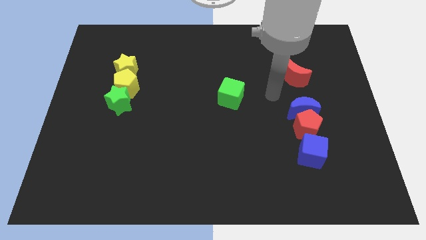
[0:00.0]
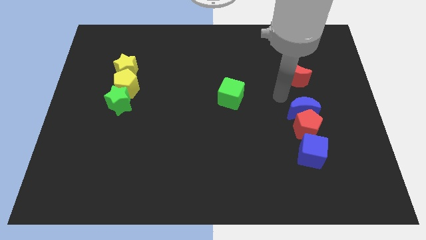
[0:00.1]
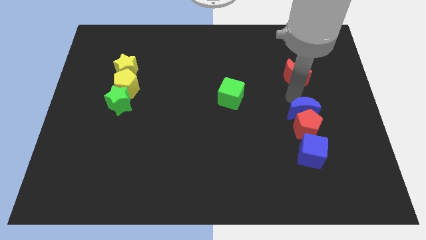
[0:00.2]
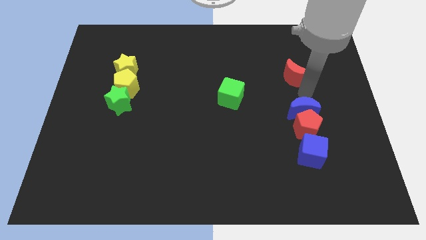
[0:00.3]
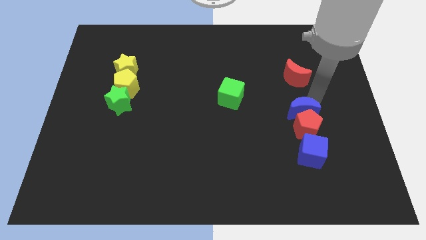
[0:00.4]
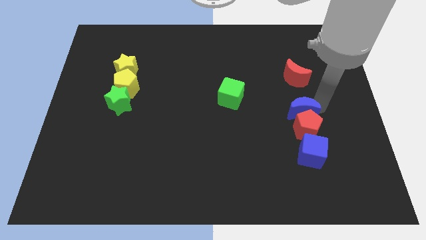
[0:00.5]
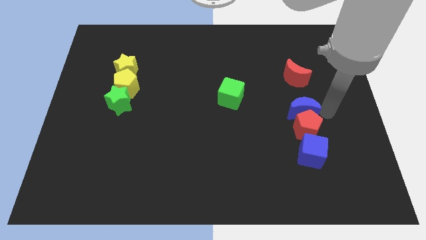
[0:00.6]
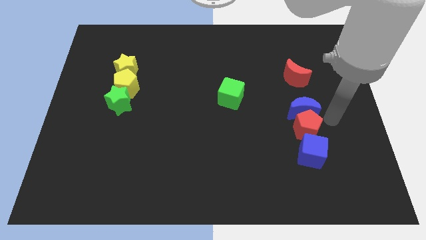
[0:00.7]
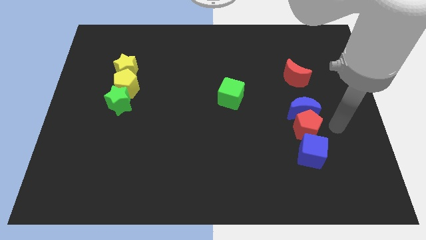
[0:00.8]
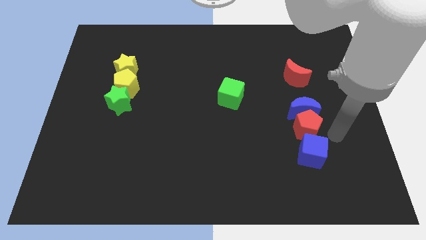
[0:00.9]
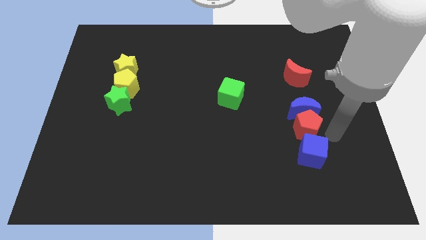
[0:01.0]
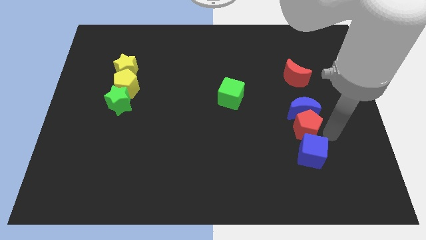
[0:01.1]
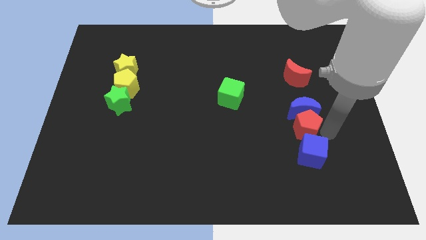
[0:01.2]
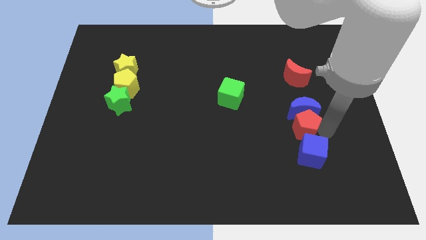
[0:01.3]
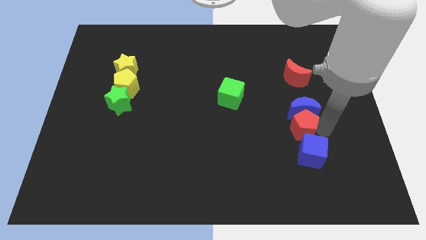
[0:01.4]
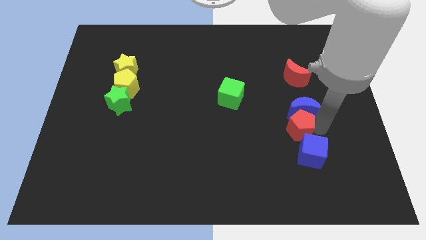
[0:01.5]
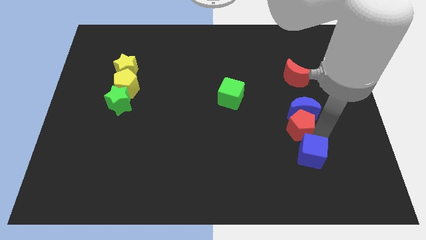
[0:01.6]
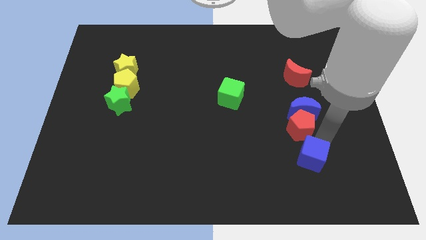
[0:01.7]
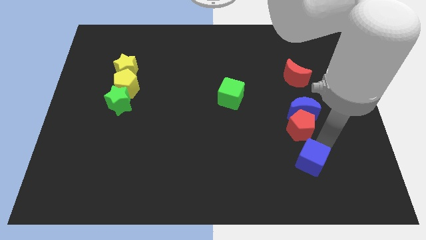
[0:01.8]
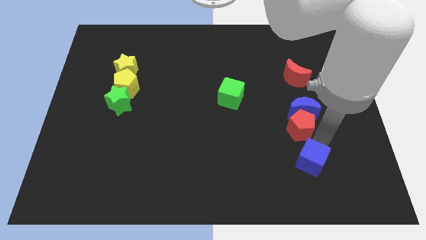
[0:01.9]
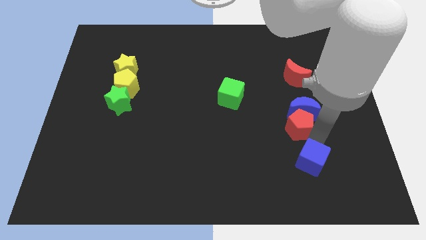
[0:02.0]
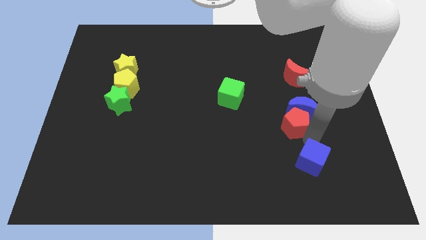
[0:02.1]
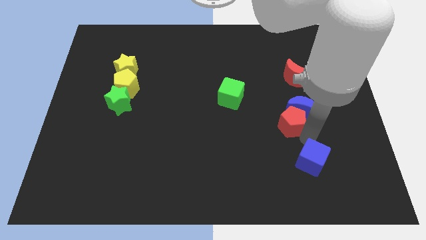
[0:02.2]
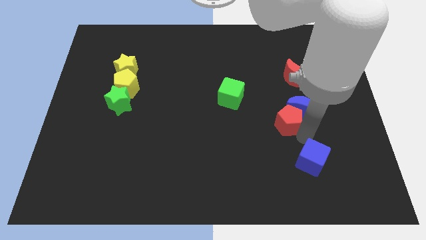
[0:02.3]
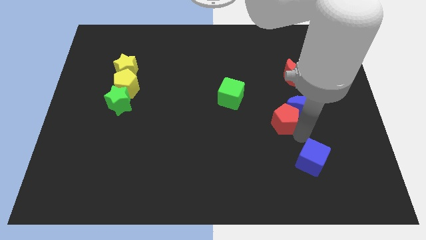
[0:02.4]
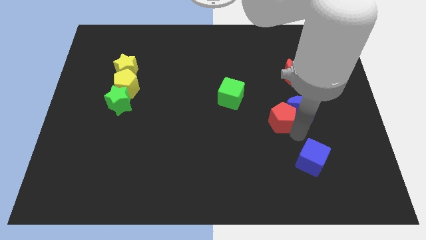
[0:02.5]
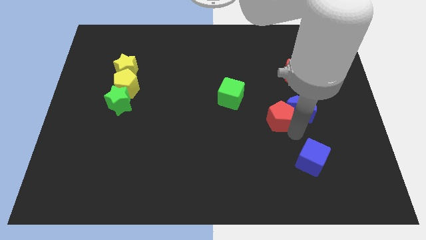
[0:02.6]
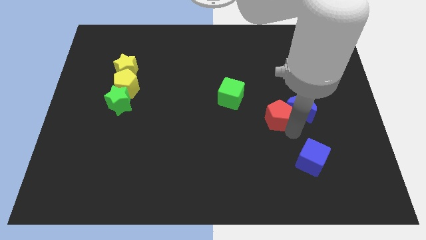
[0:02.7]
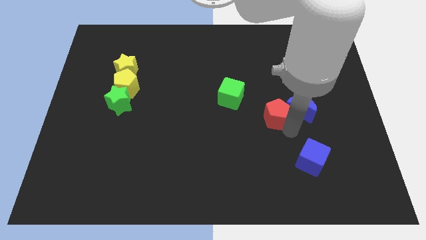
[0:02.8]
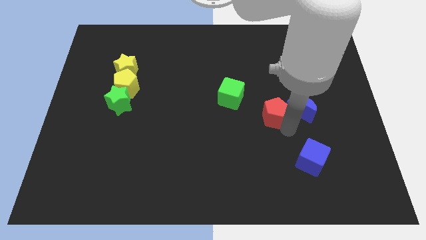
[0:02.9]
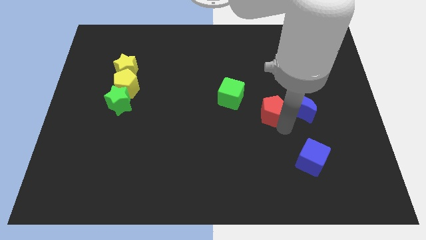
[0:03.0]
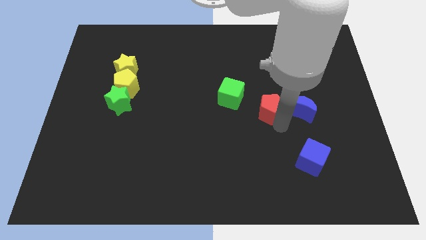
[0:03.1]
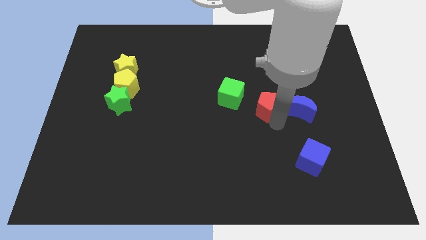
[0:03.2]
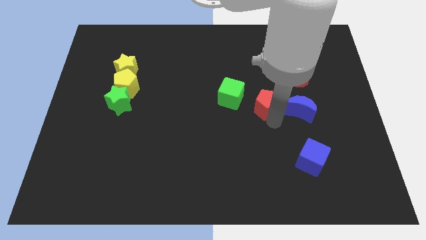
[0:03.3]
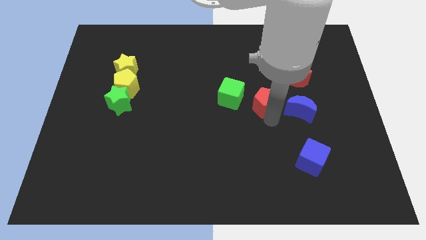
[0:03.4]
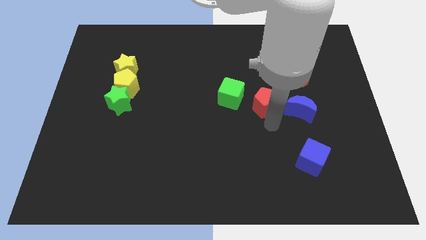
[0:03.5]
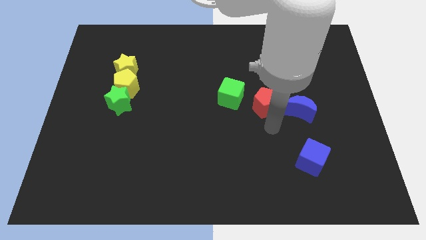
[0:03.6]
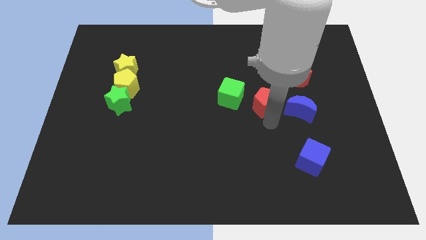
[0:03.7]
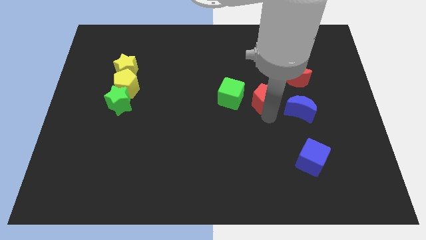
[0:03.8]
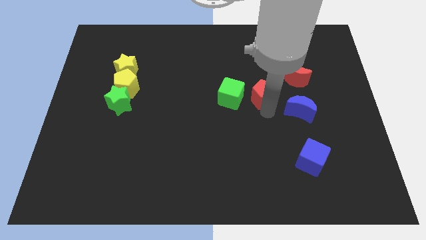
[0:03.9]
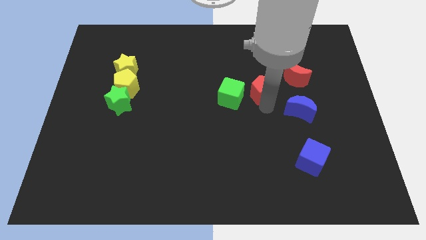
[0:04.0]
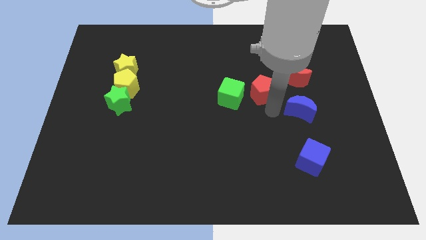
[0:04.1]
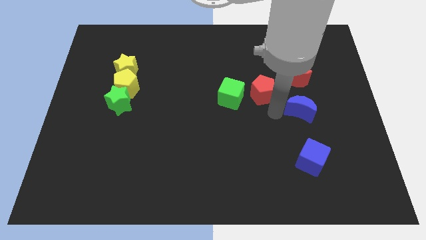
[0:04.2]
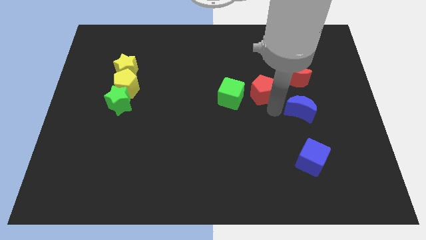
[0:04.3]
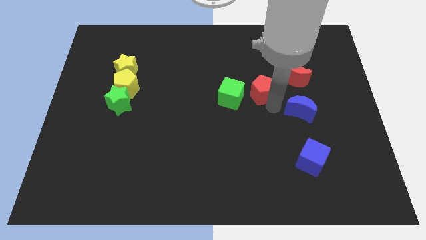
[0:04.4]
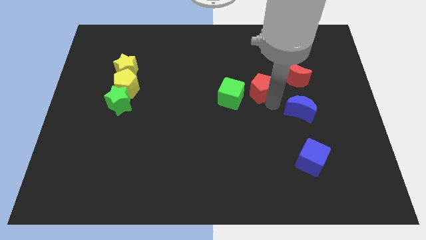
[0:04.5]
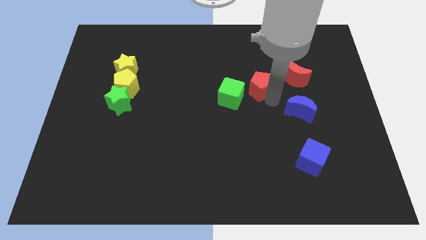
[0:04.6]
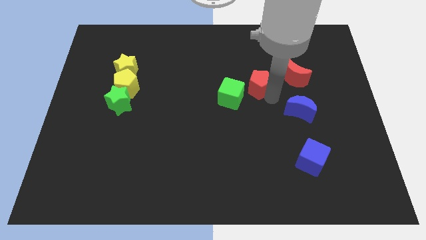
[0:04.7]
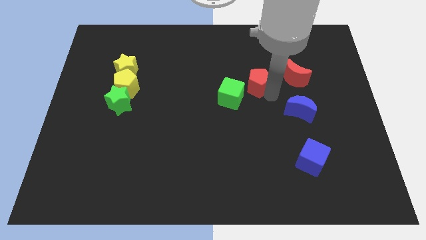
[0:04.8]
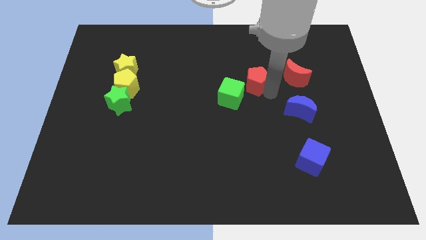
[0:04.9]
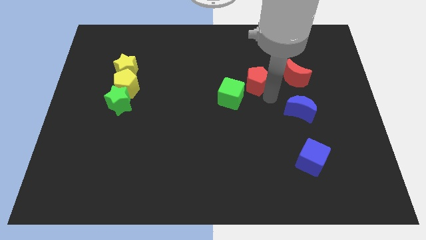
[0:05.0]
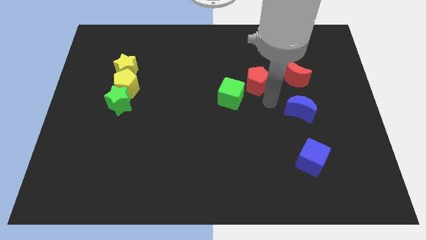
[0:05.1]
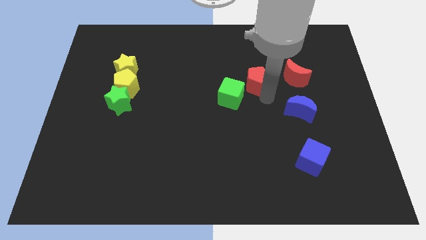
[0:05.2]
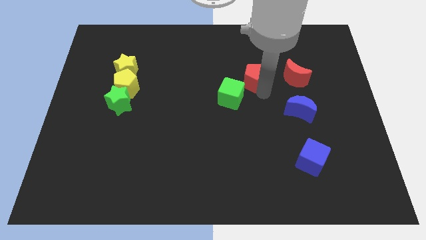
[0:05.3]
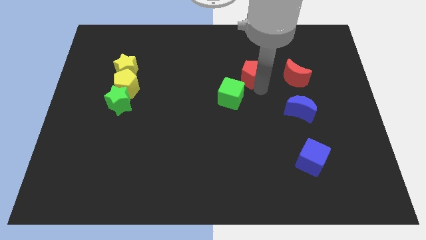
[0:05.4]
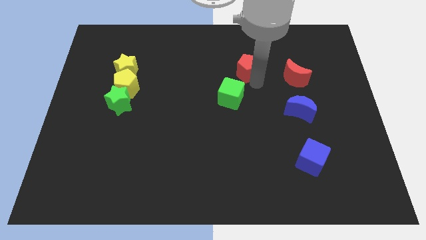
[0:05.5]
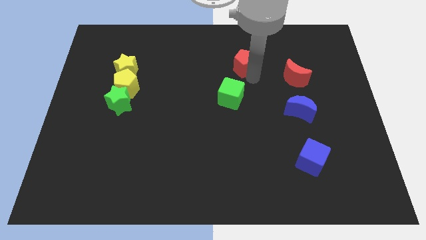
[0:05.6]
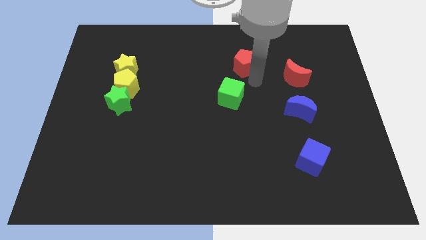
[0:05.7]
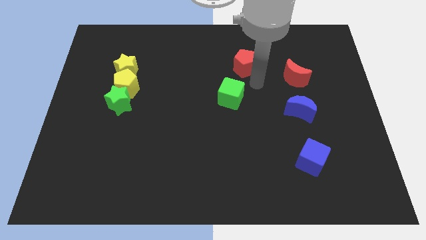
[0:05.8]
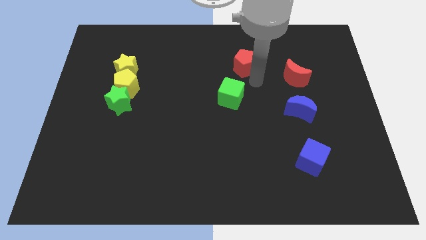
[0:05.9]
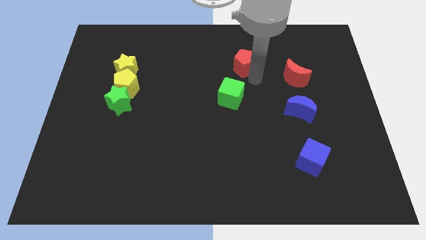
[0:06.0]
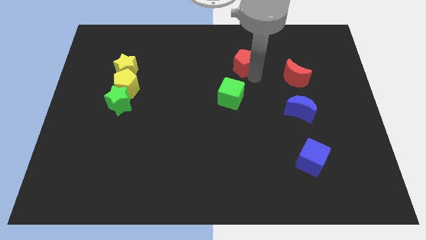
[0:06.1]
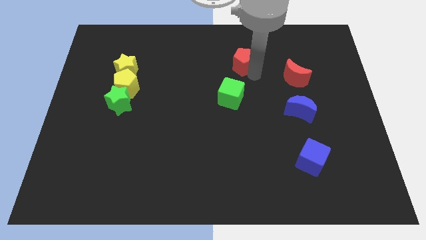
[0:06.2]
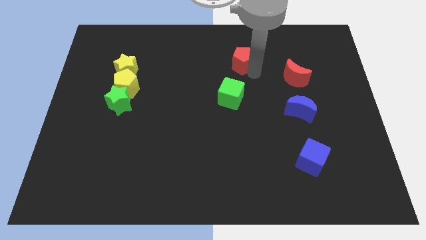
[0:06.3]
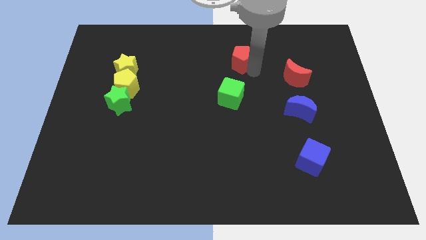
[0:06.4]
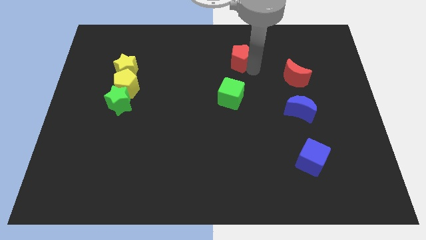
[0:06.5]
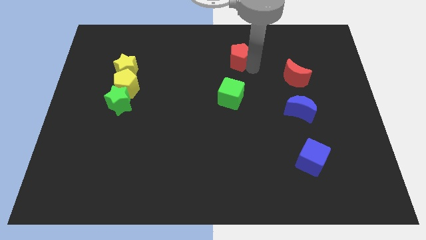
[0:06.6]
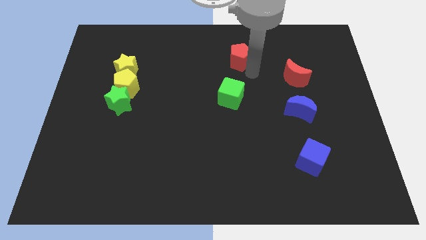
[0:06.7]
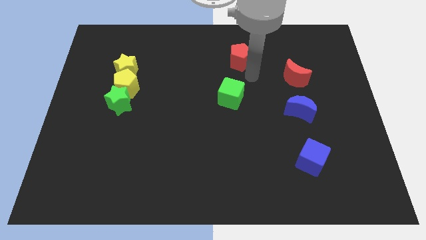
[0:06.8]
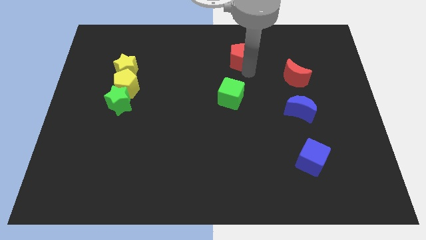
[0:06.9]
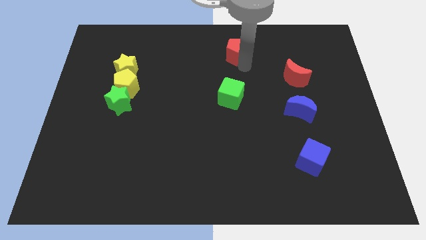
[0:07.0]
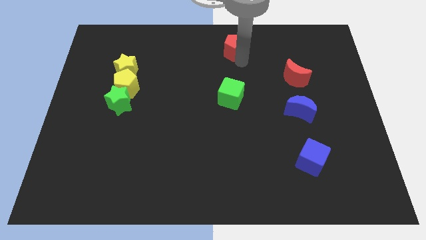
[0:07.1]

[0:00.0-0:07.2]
put the red pentagon to the top

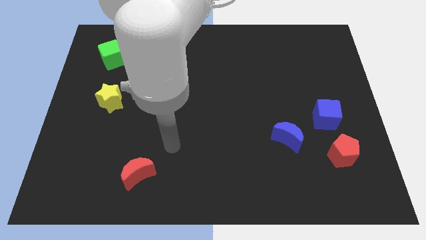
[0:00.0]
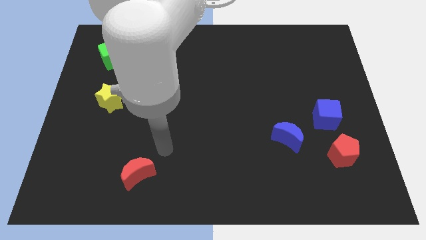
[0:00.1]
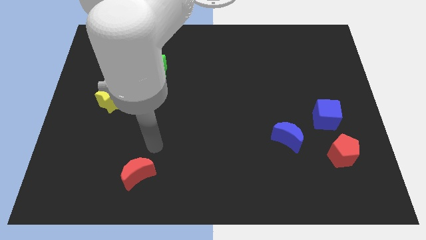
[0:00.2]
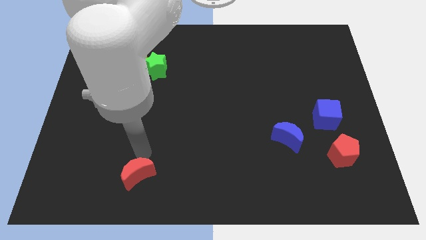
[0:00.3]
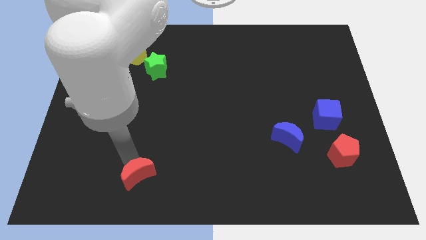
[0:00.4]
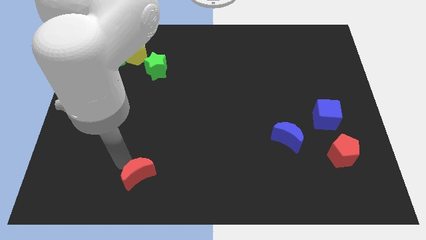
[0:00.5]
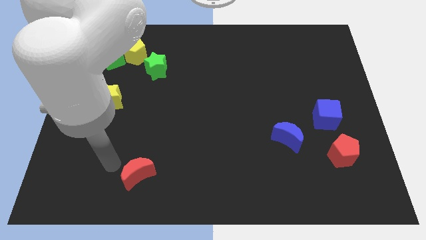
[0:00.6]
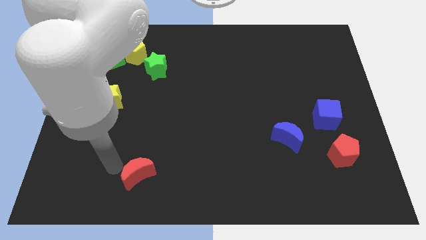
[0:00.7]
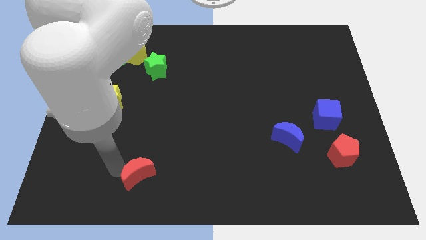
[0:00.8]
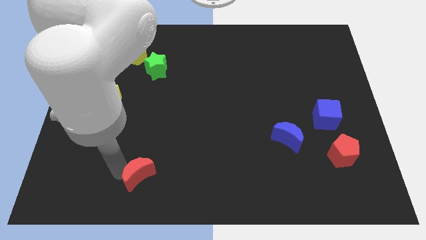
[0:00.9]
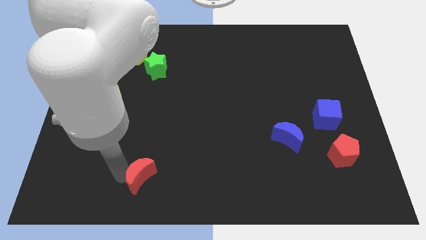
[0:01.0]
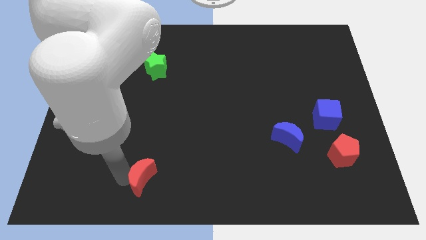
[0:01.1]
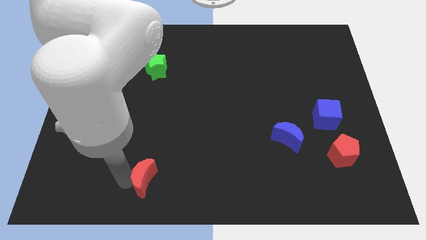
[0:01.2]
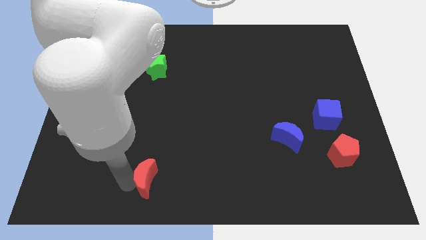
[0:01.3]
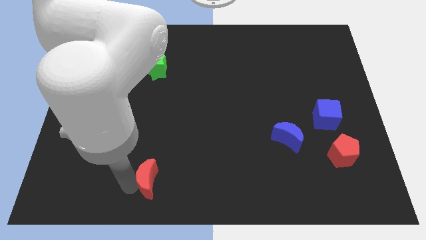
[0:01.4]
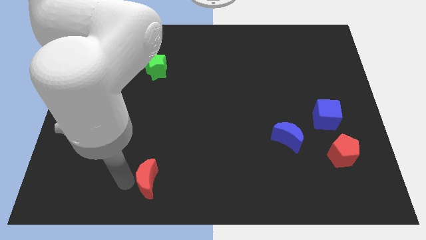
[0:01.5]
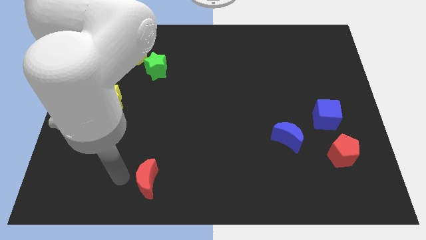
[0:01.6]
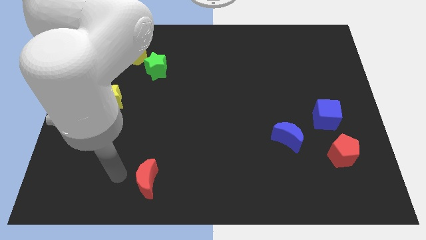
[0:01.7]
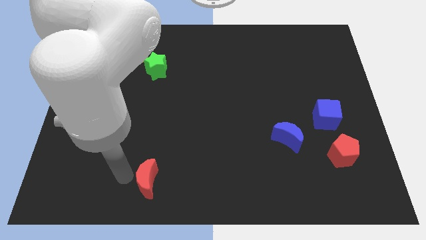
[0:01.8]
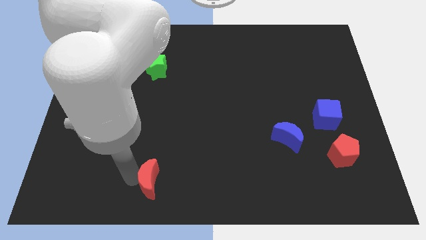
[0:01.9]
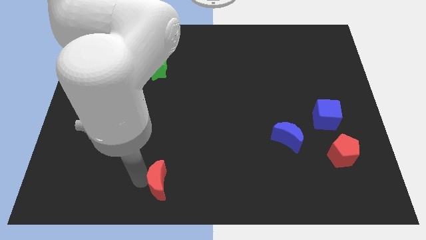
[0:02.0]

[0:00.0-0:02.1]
put the red moon to the bottom
